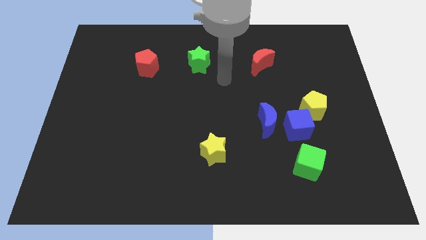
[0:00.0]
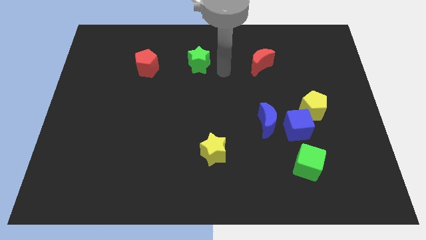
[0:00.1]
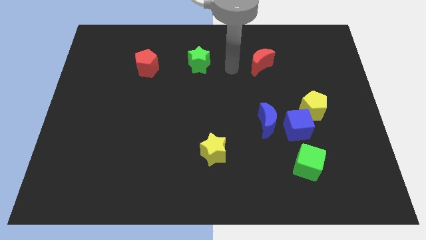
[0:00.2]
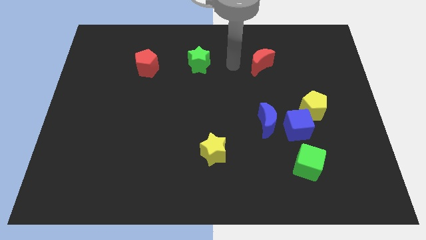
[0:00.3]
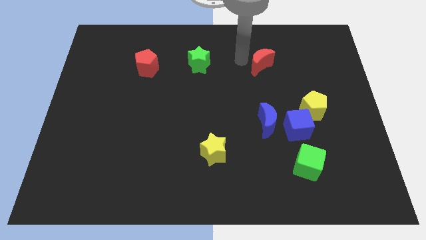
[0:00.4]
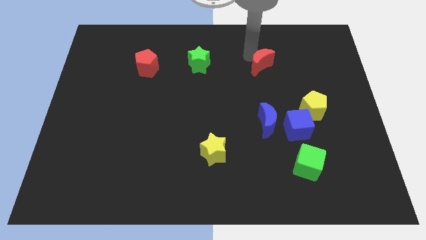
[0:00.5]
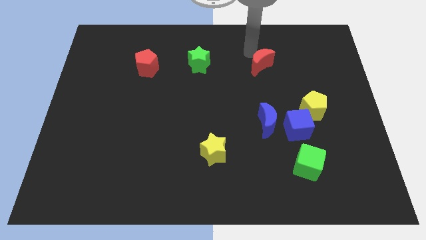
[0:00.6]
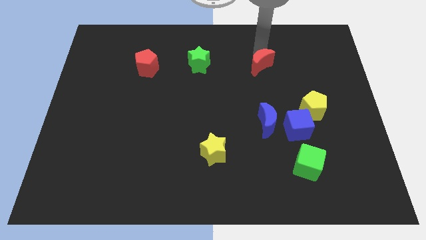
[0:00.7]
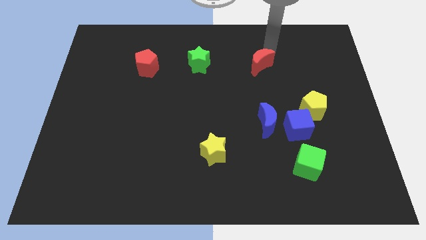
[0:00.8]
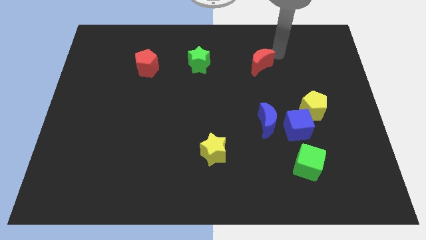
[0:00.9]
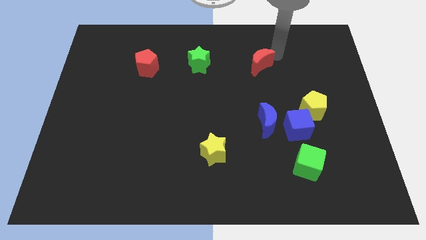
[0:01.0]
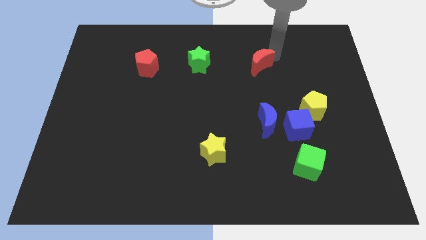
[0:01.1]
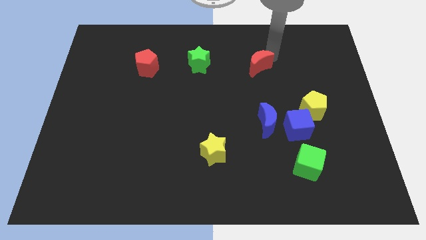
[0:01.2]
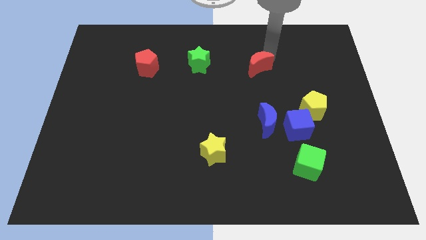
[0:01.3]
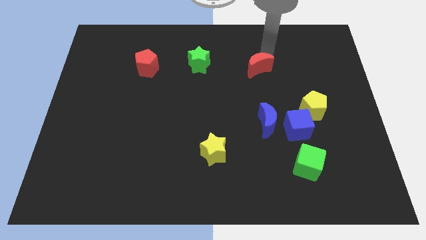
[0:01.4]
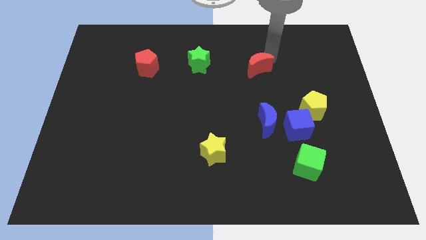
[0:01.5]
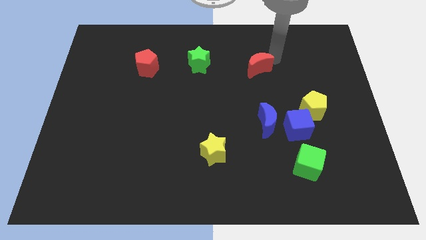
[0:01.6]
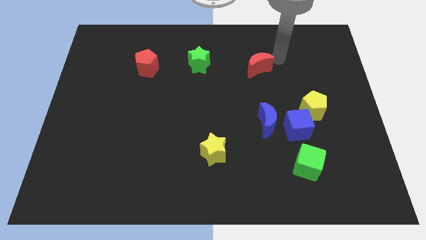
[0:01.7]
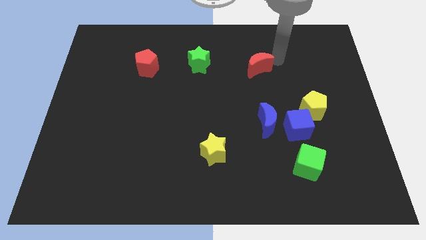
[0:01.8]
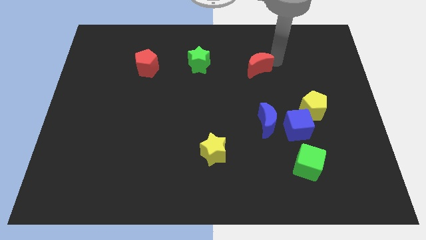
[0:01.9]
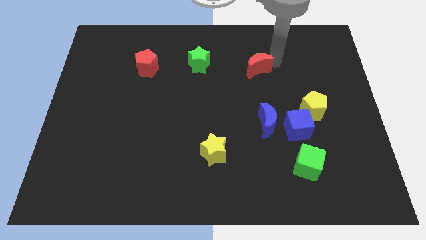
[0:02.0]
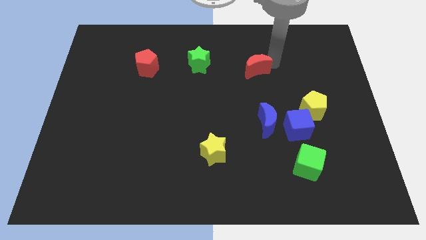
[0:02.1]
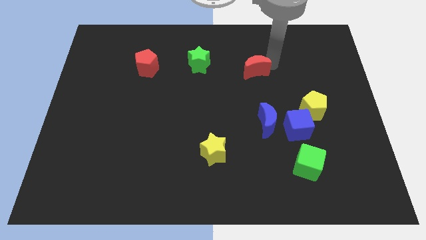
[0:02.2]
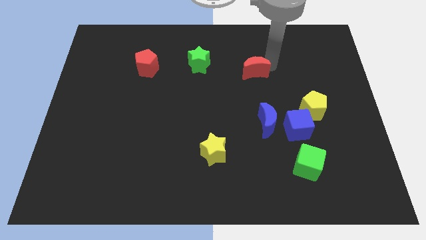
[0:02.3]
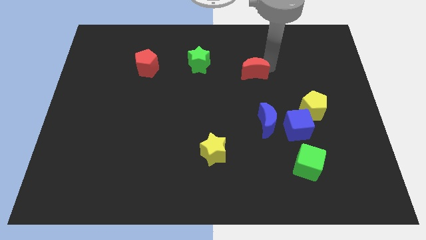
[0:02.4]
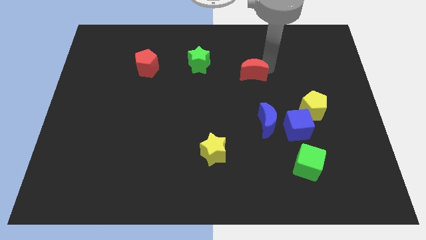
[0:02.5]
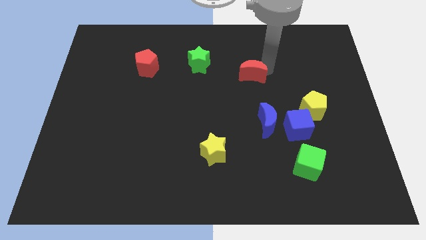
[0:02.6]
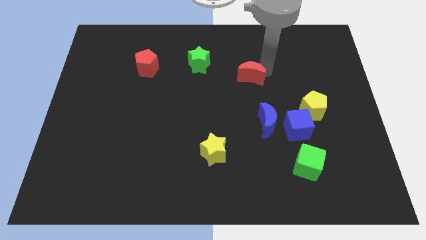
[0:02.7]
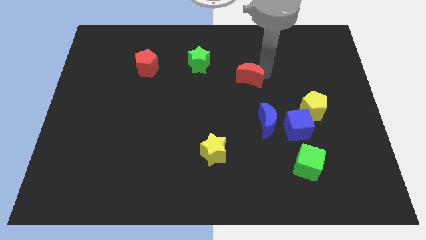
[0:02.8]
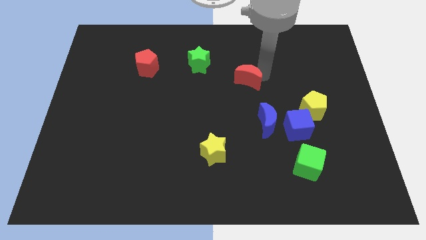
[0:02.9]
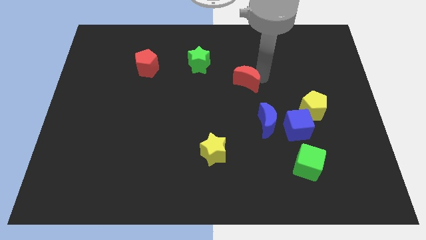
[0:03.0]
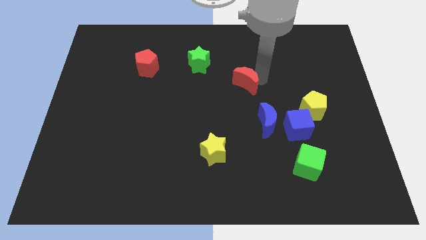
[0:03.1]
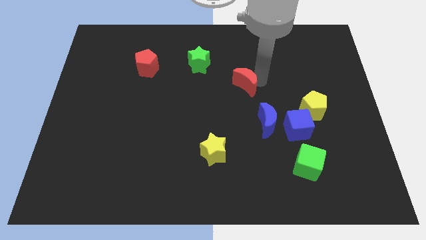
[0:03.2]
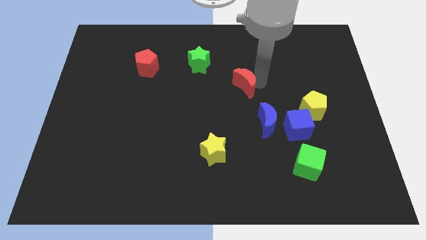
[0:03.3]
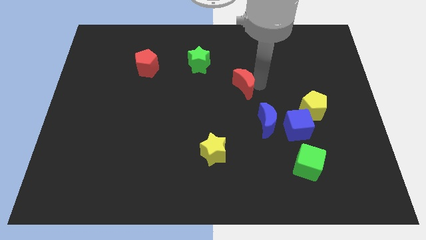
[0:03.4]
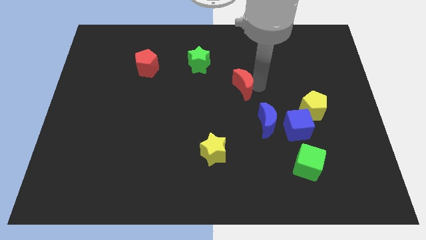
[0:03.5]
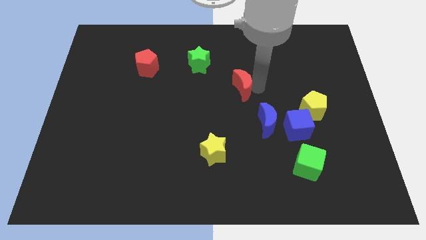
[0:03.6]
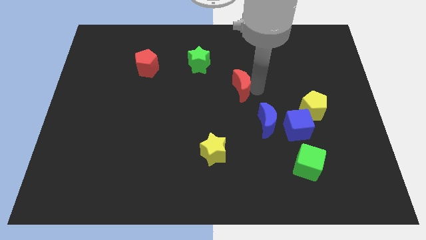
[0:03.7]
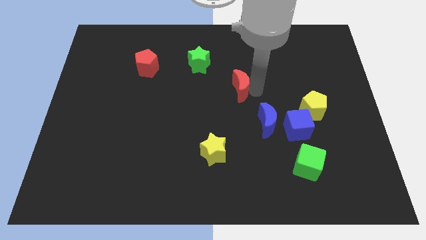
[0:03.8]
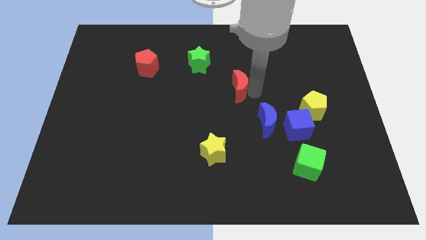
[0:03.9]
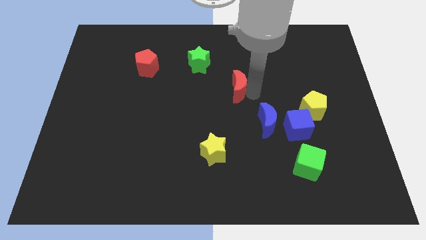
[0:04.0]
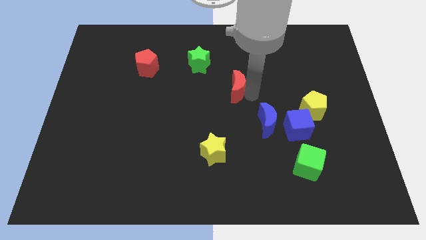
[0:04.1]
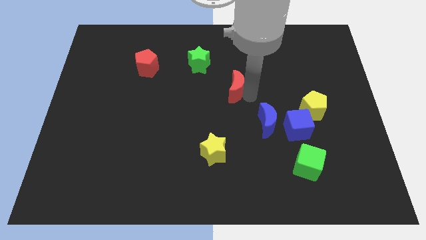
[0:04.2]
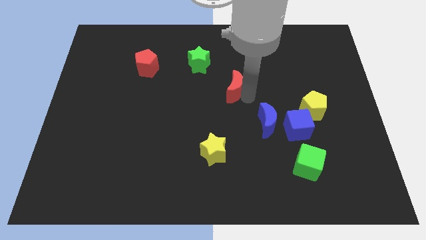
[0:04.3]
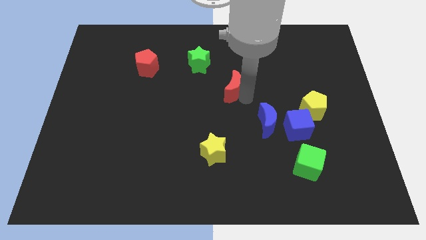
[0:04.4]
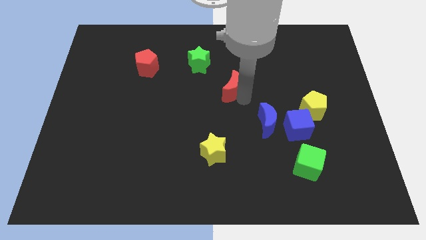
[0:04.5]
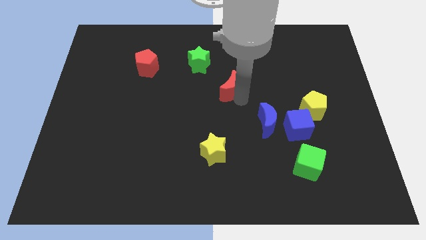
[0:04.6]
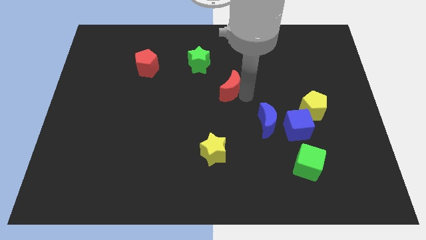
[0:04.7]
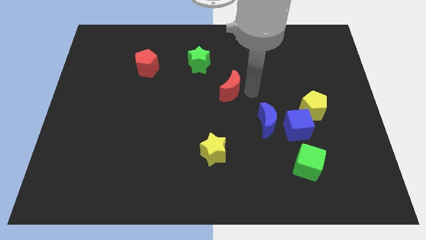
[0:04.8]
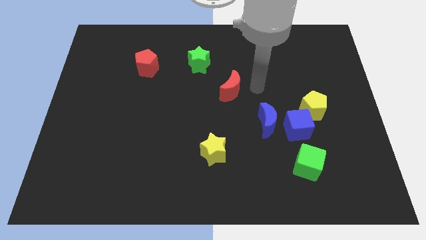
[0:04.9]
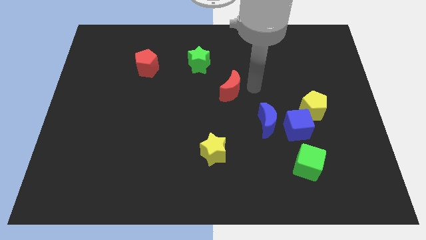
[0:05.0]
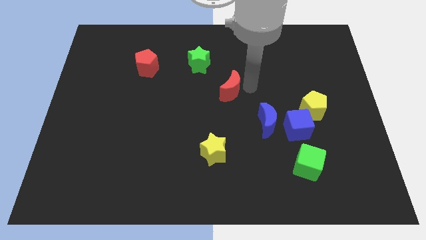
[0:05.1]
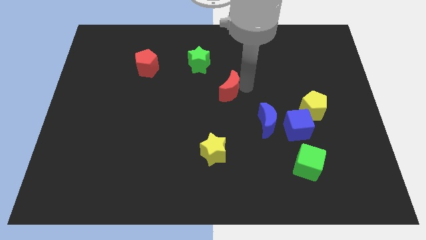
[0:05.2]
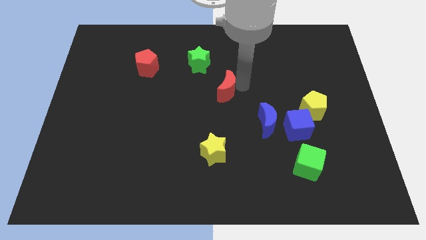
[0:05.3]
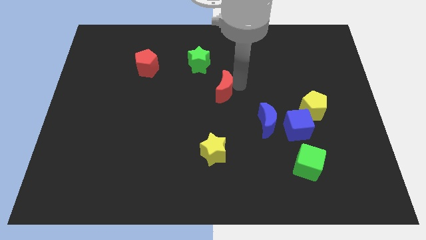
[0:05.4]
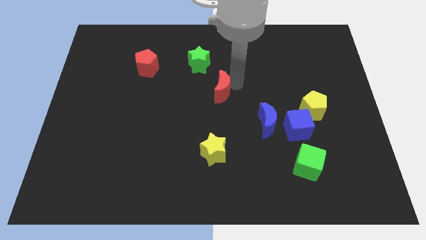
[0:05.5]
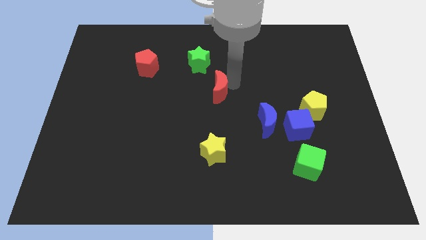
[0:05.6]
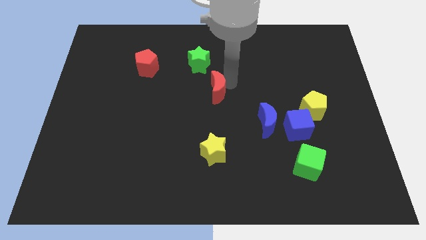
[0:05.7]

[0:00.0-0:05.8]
move the red moon to the bottom side of the green star

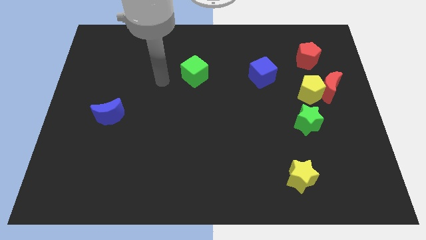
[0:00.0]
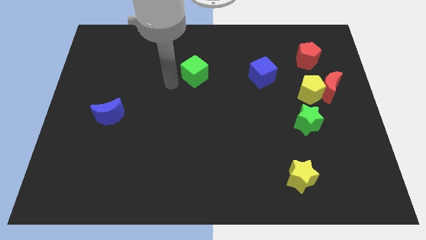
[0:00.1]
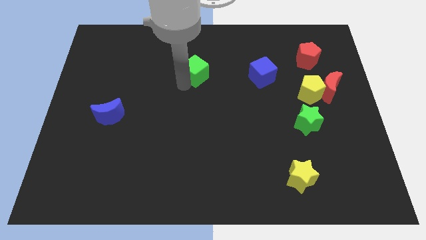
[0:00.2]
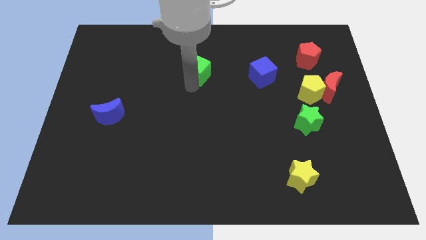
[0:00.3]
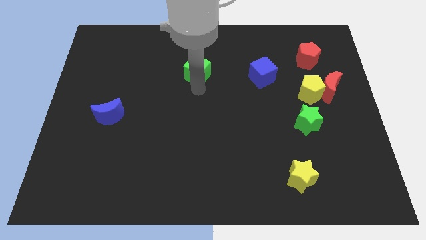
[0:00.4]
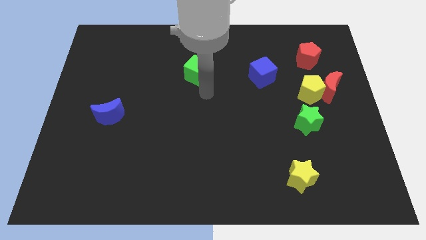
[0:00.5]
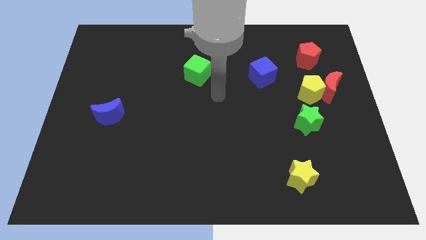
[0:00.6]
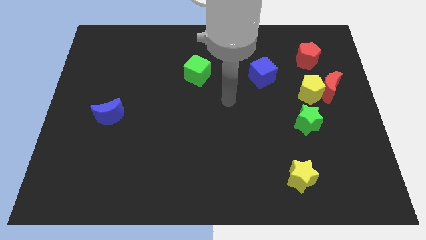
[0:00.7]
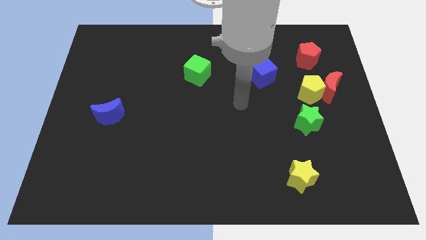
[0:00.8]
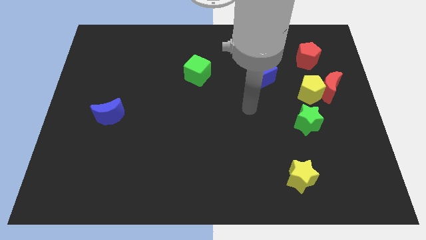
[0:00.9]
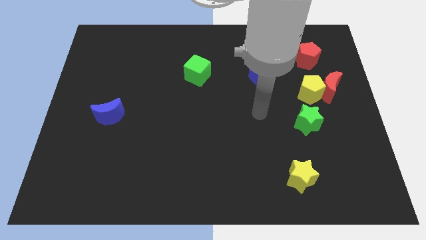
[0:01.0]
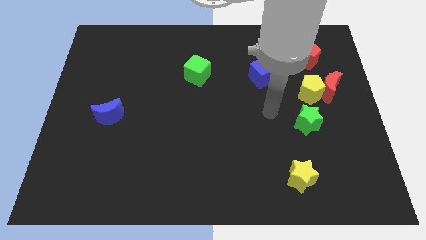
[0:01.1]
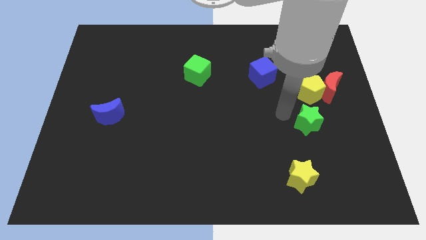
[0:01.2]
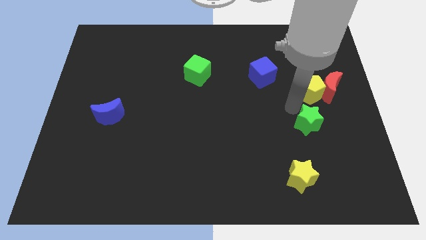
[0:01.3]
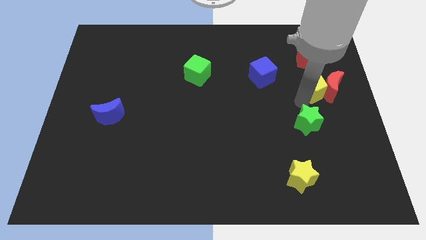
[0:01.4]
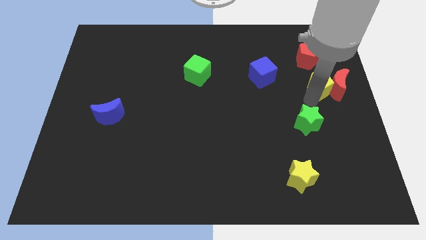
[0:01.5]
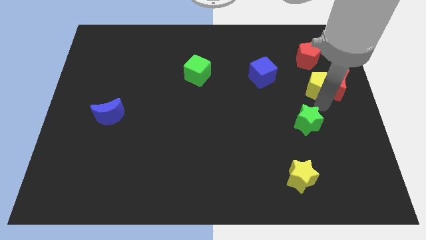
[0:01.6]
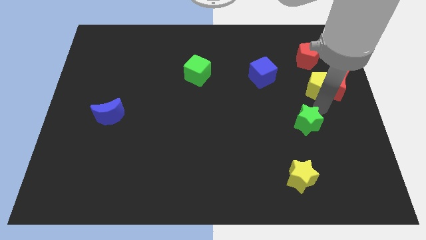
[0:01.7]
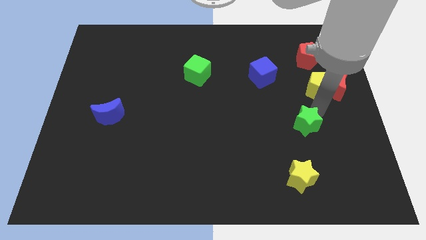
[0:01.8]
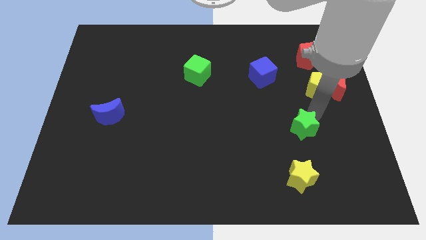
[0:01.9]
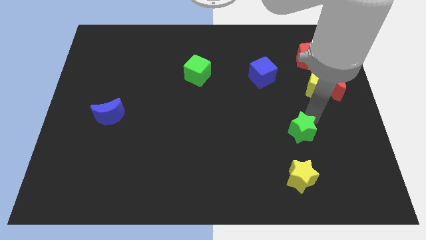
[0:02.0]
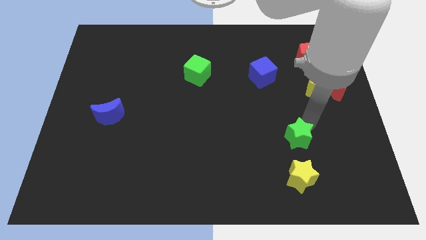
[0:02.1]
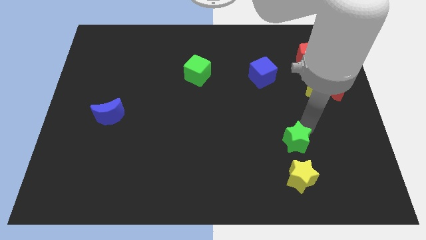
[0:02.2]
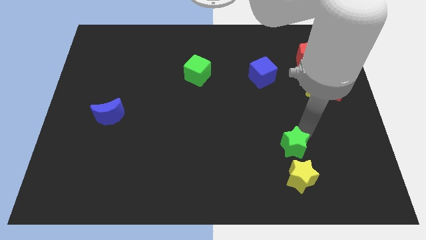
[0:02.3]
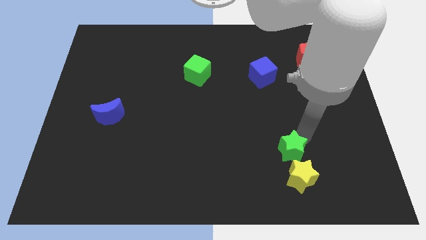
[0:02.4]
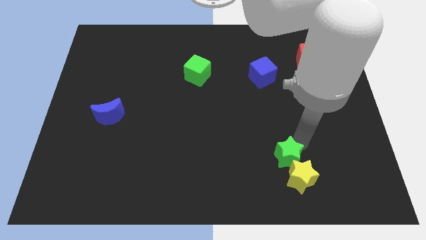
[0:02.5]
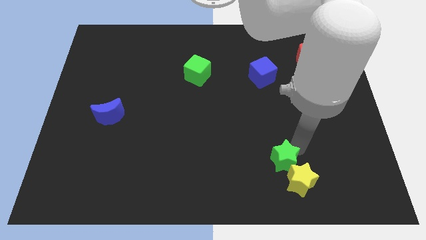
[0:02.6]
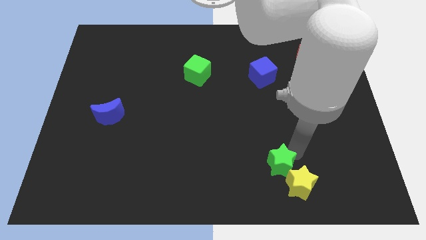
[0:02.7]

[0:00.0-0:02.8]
push the green star just left of the yellow star
